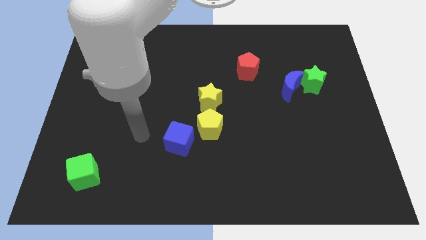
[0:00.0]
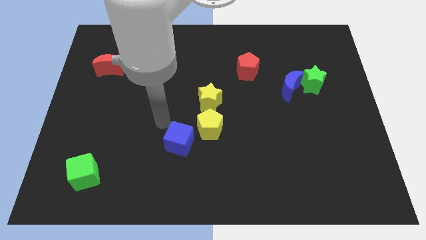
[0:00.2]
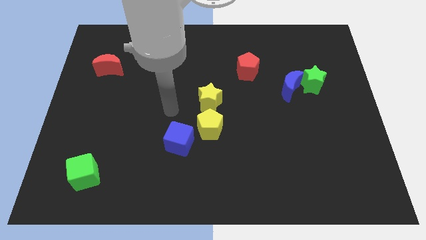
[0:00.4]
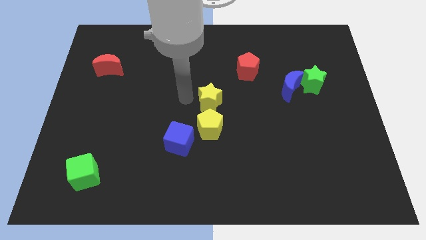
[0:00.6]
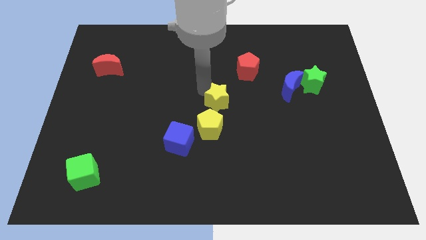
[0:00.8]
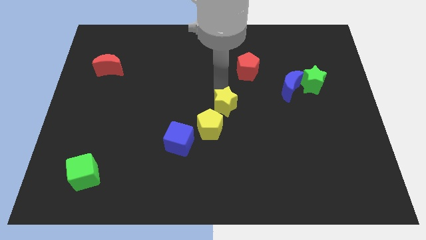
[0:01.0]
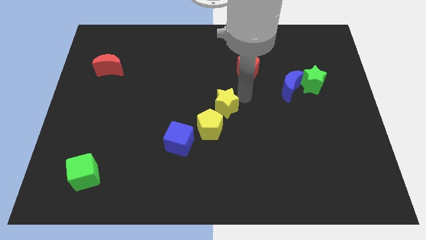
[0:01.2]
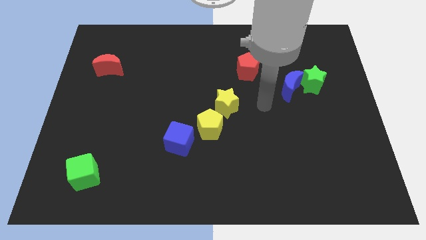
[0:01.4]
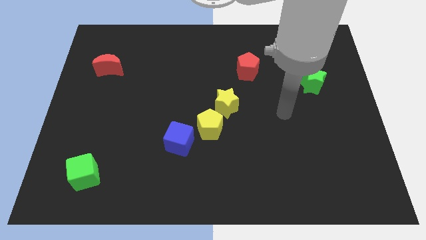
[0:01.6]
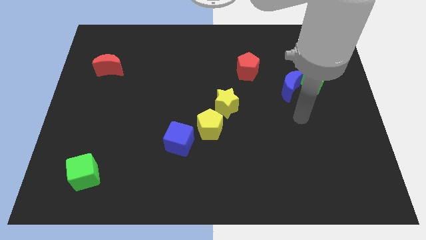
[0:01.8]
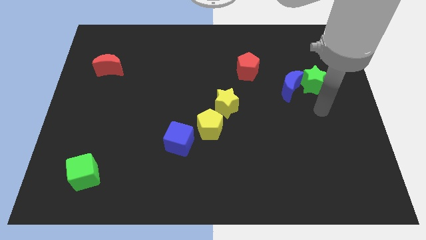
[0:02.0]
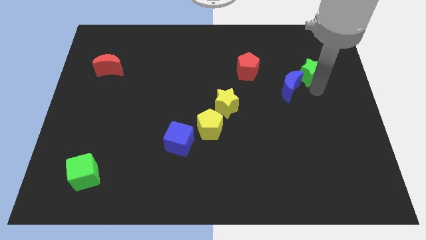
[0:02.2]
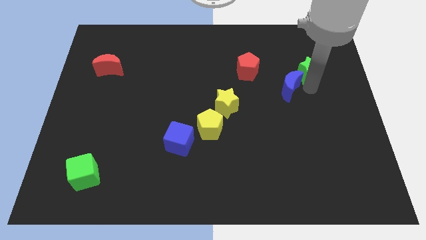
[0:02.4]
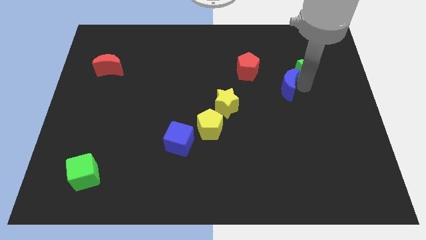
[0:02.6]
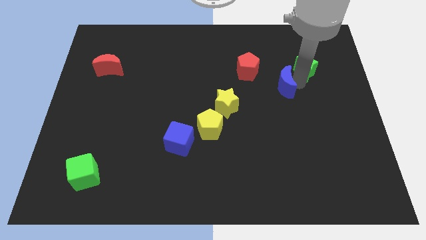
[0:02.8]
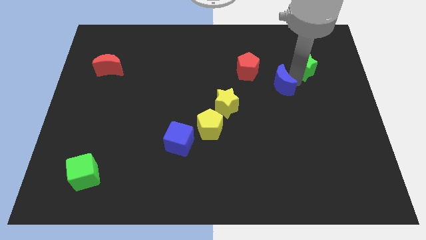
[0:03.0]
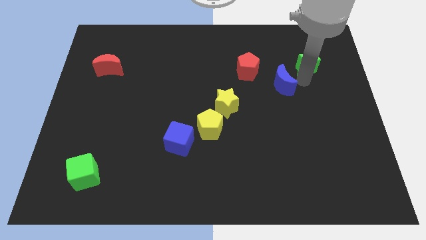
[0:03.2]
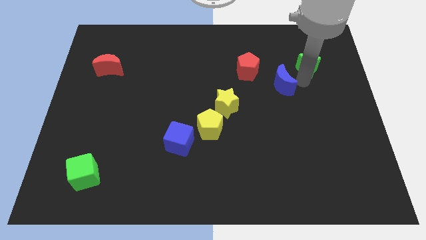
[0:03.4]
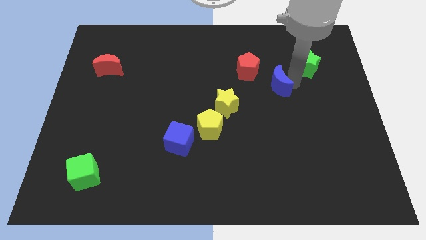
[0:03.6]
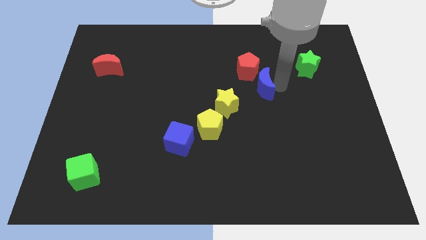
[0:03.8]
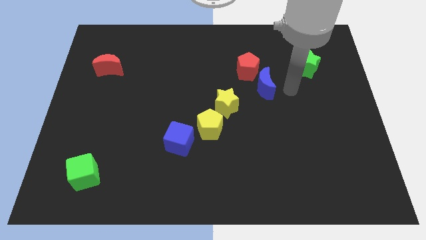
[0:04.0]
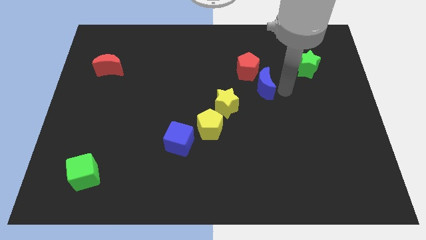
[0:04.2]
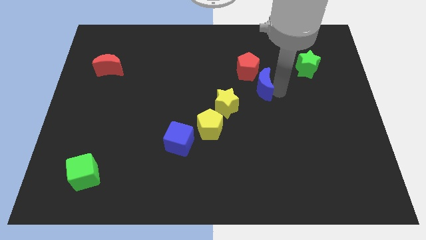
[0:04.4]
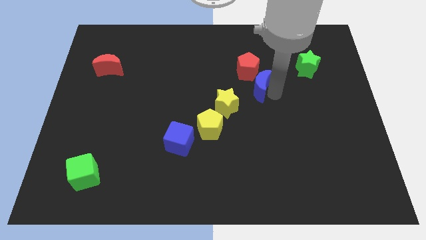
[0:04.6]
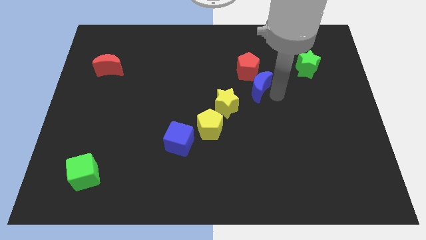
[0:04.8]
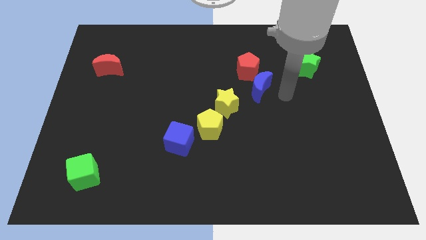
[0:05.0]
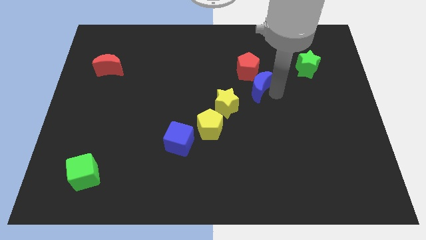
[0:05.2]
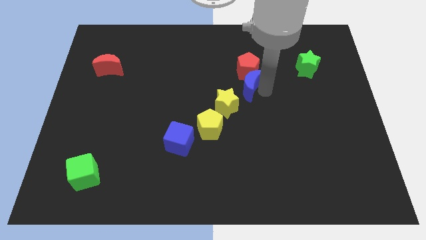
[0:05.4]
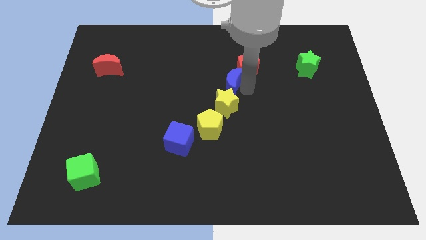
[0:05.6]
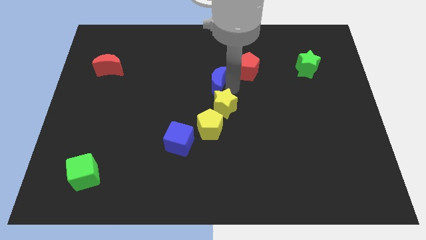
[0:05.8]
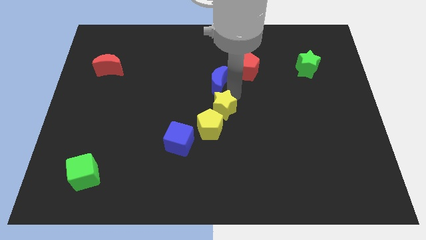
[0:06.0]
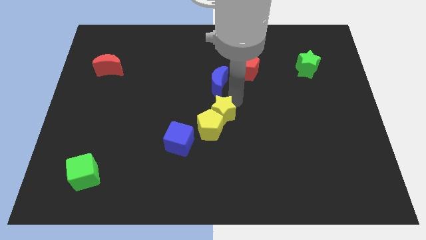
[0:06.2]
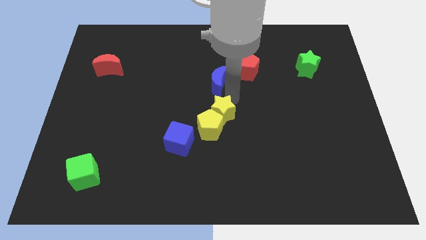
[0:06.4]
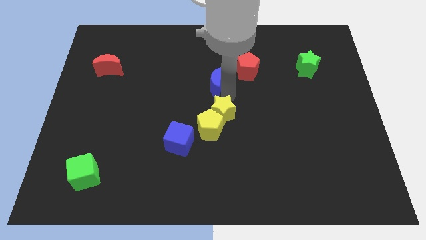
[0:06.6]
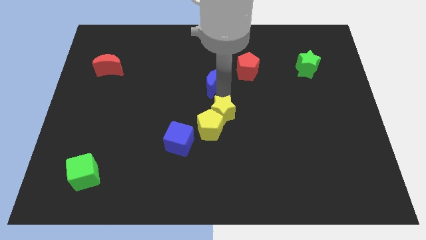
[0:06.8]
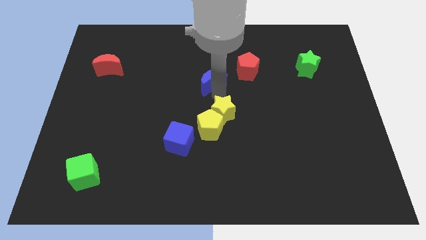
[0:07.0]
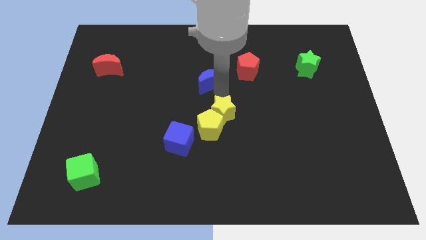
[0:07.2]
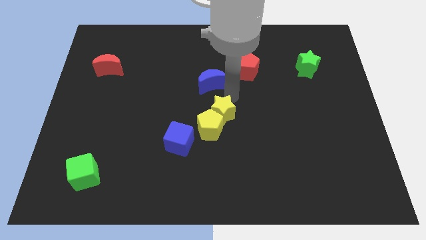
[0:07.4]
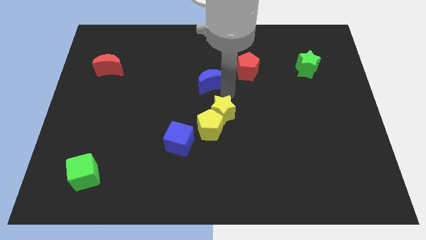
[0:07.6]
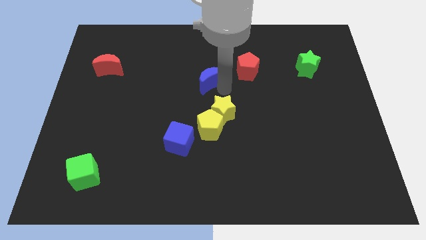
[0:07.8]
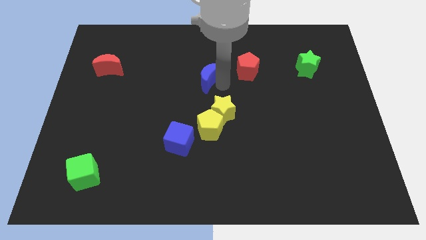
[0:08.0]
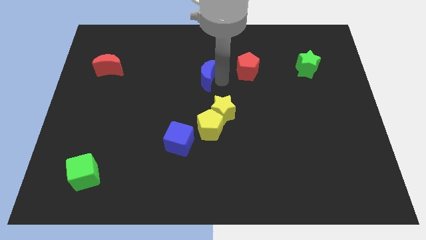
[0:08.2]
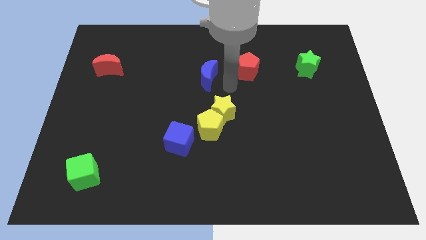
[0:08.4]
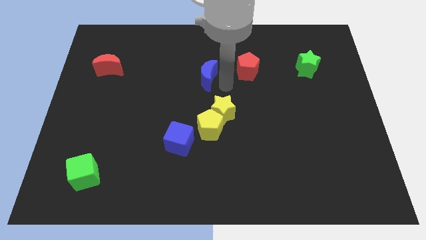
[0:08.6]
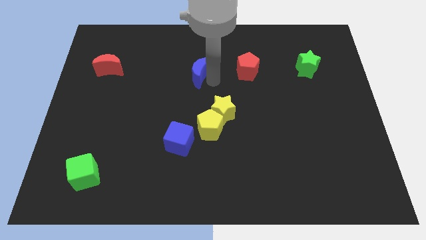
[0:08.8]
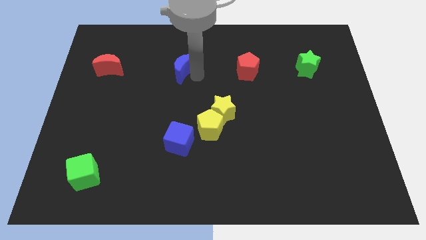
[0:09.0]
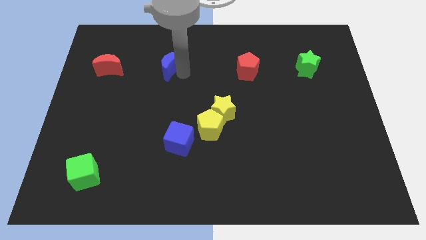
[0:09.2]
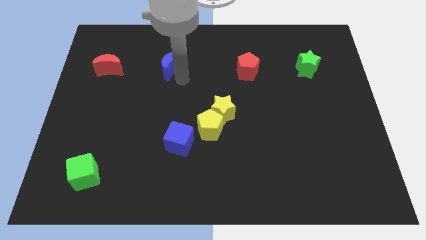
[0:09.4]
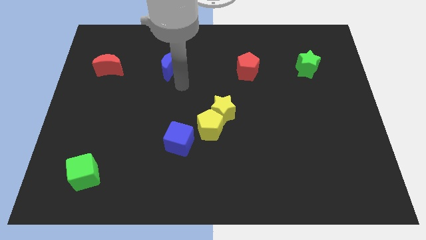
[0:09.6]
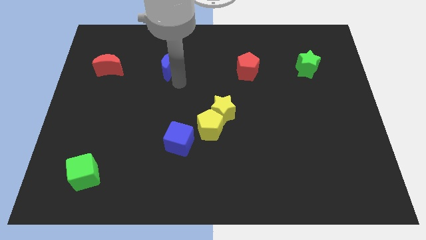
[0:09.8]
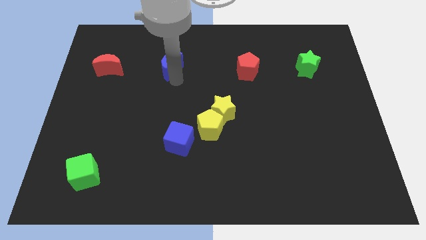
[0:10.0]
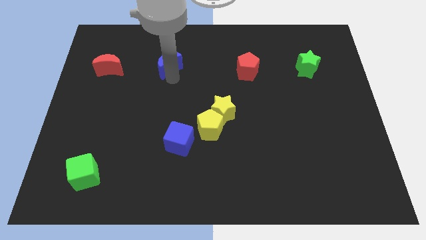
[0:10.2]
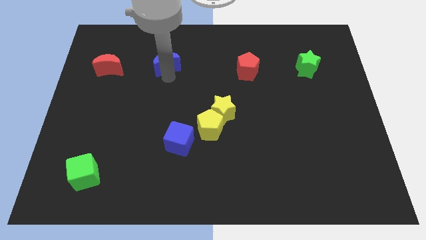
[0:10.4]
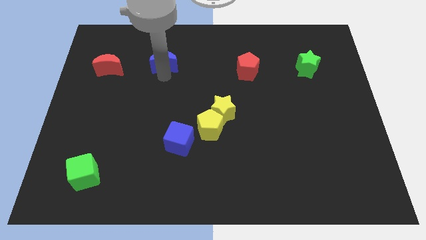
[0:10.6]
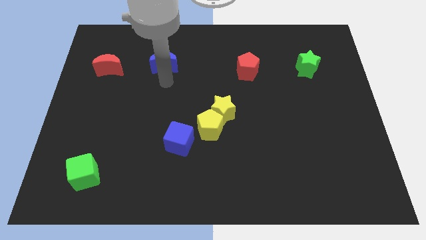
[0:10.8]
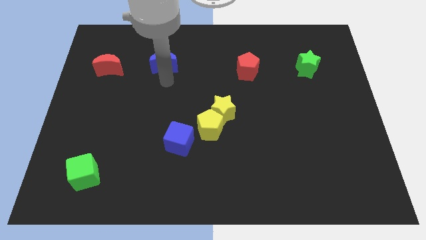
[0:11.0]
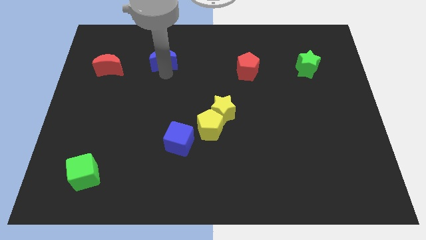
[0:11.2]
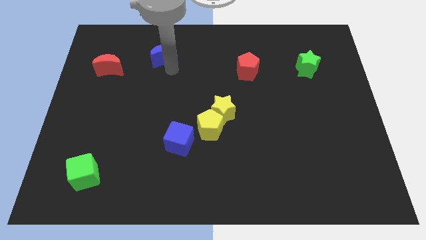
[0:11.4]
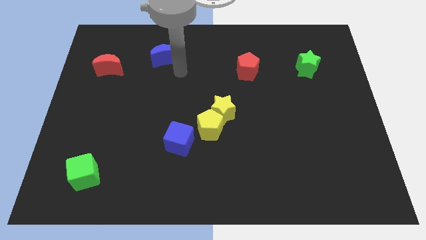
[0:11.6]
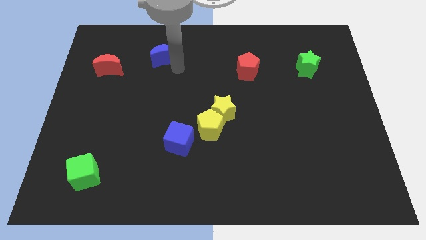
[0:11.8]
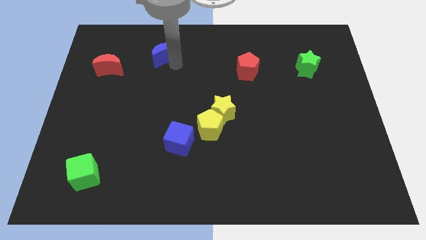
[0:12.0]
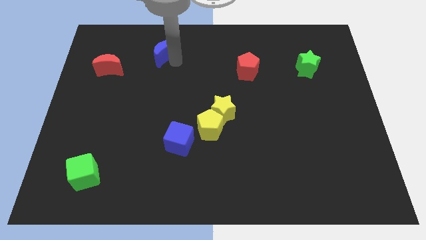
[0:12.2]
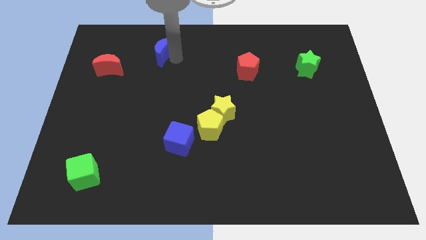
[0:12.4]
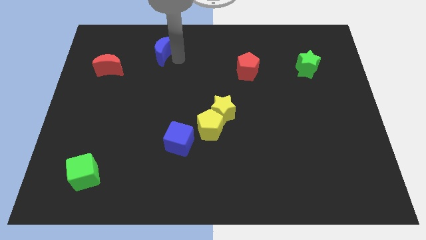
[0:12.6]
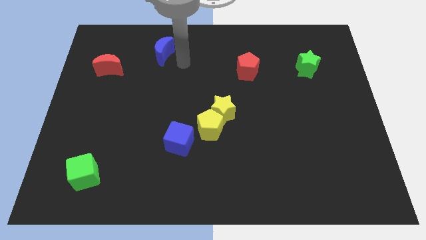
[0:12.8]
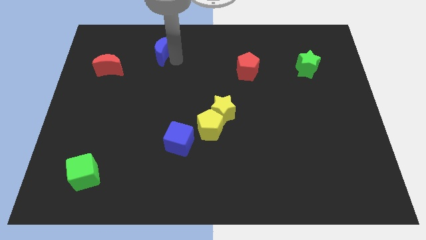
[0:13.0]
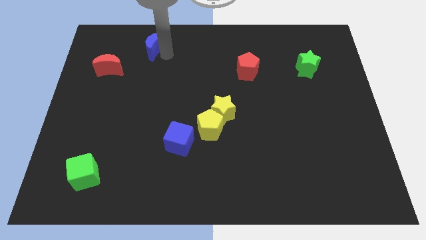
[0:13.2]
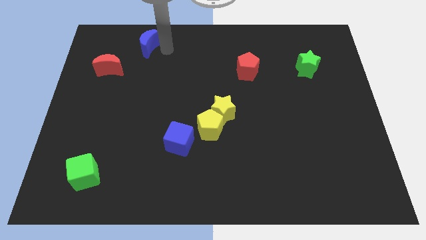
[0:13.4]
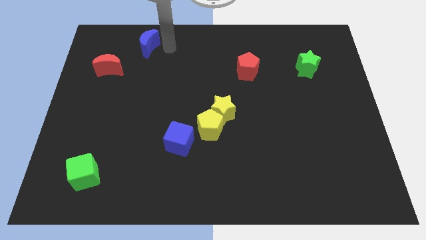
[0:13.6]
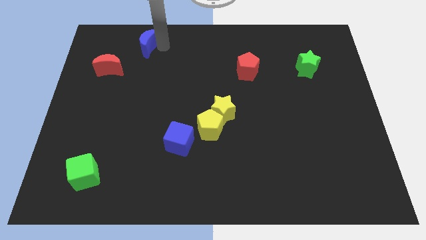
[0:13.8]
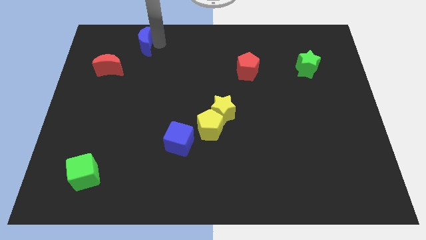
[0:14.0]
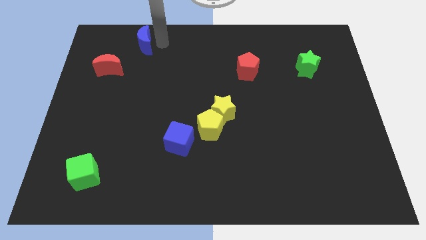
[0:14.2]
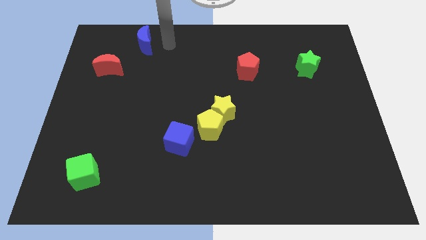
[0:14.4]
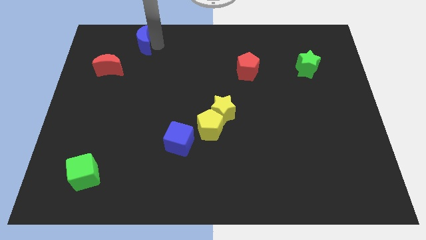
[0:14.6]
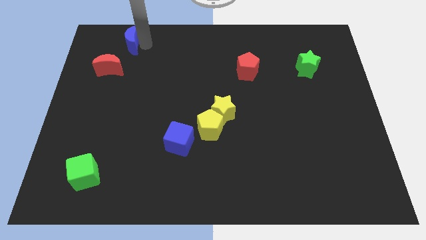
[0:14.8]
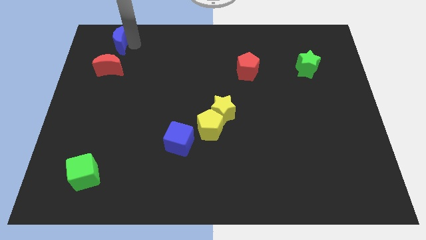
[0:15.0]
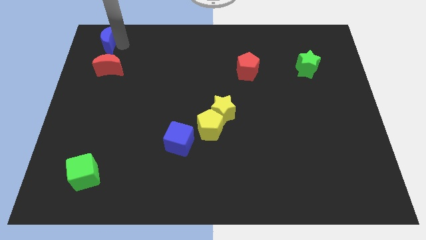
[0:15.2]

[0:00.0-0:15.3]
slide the blue moon to the top left corner
